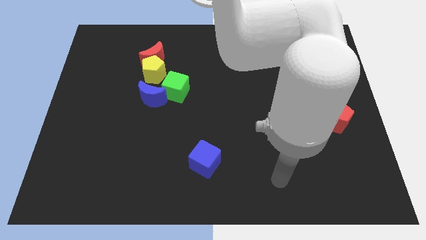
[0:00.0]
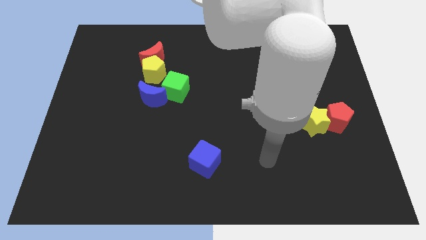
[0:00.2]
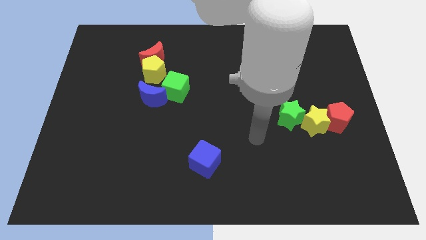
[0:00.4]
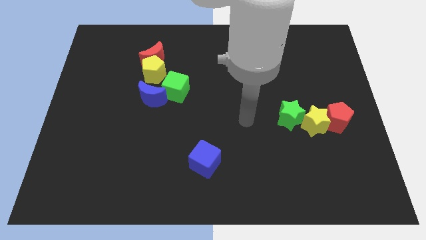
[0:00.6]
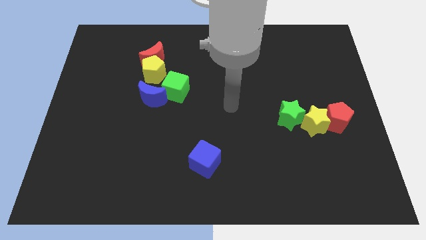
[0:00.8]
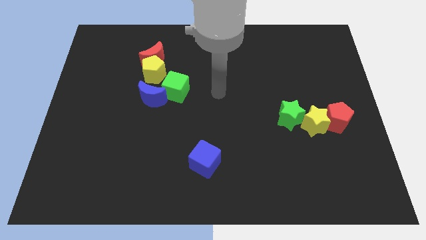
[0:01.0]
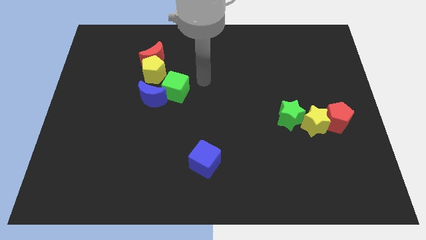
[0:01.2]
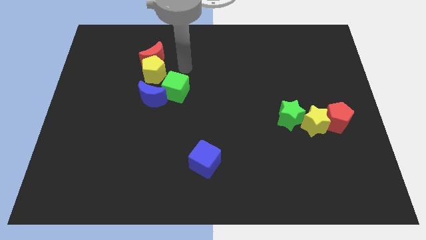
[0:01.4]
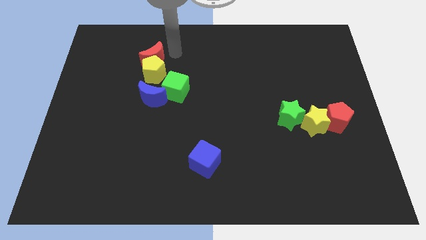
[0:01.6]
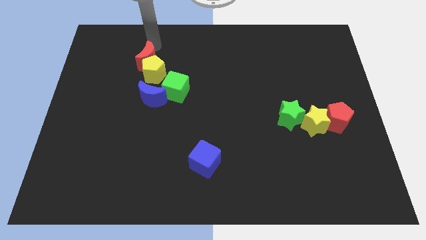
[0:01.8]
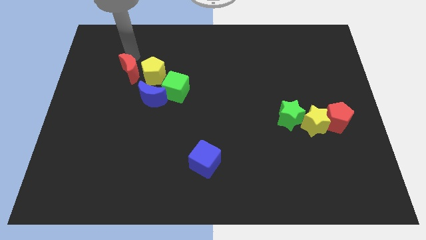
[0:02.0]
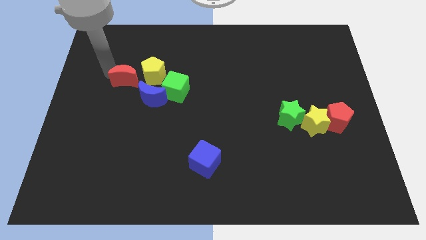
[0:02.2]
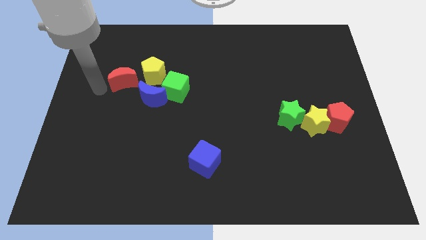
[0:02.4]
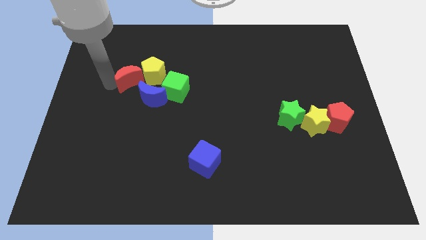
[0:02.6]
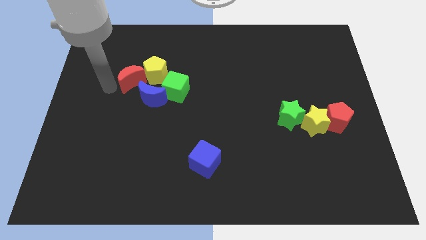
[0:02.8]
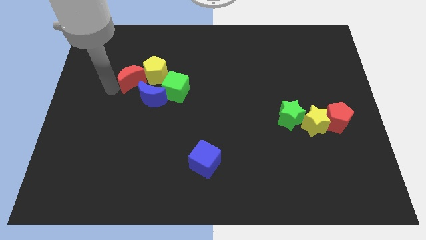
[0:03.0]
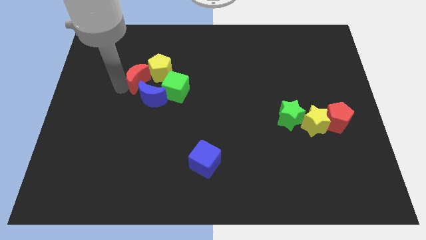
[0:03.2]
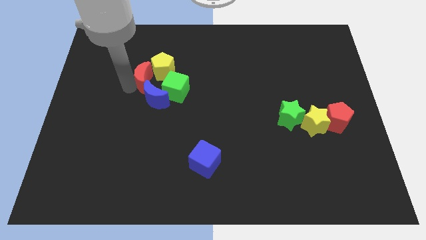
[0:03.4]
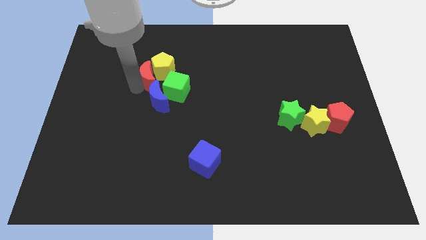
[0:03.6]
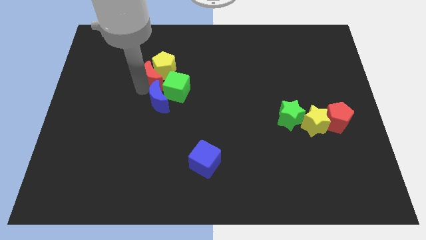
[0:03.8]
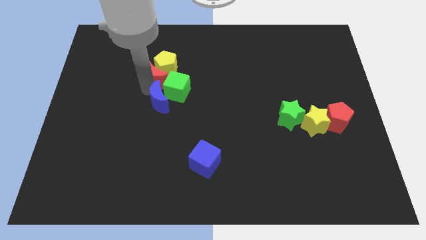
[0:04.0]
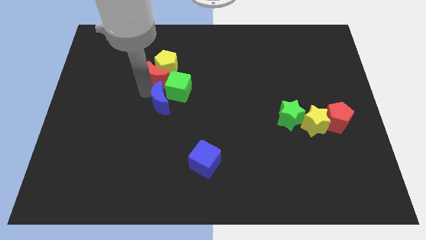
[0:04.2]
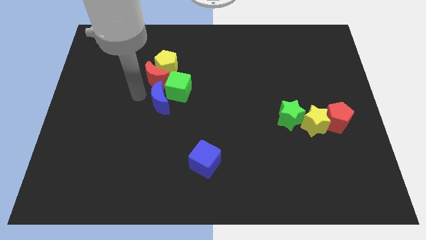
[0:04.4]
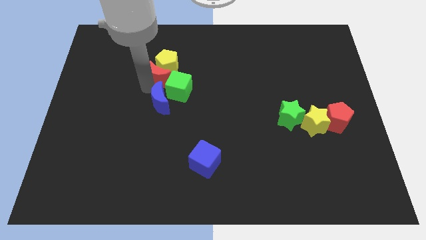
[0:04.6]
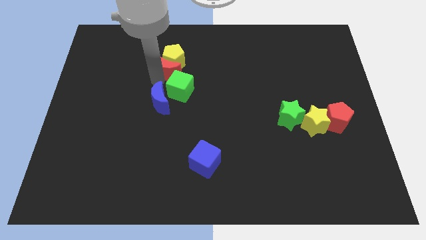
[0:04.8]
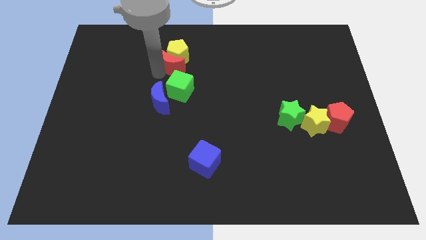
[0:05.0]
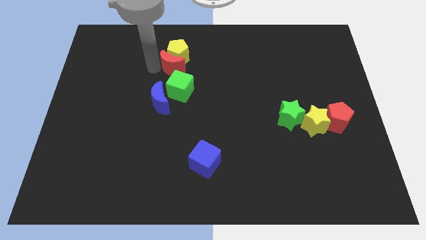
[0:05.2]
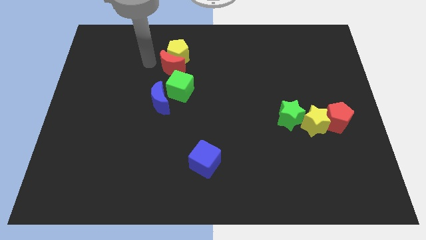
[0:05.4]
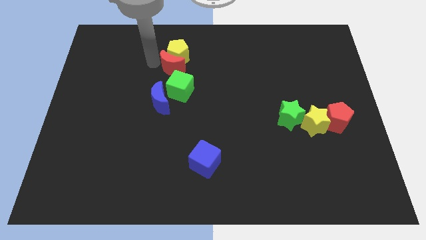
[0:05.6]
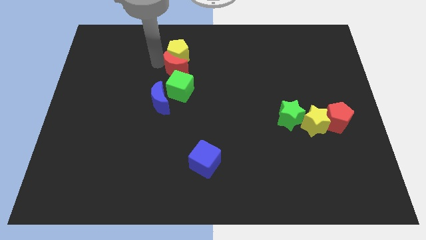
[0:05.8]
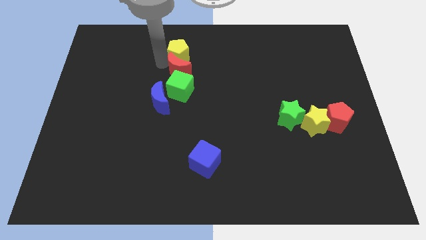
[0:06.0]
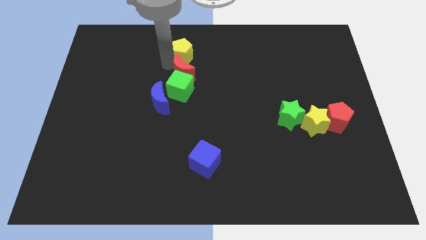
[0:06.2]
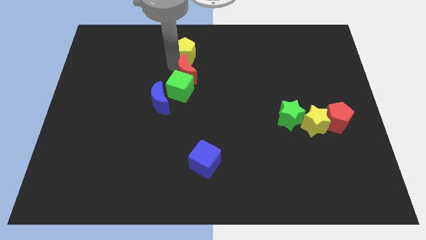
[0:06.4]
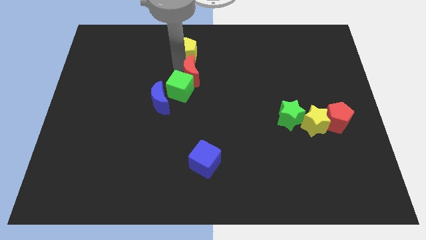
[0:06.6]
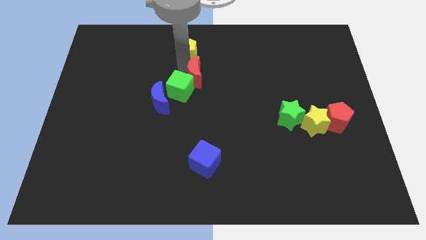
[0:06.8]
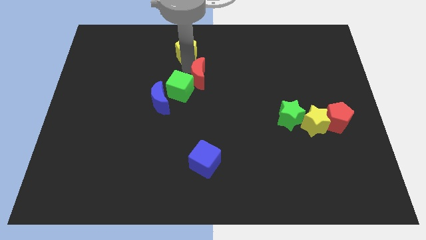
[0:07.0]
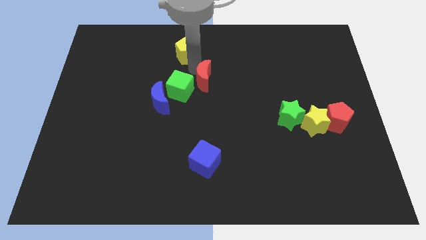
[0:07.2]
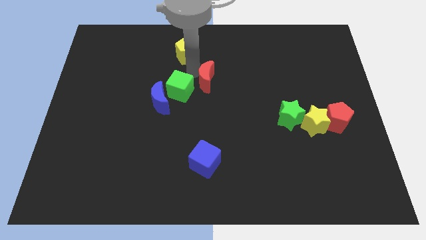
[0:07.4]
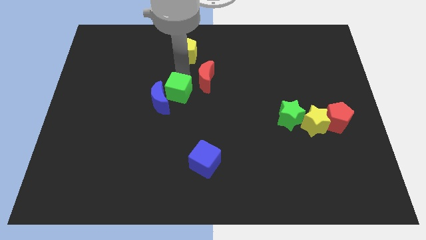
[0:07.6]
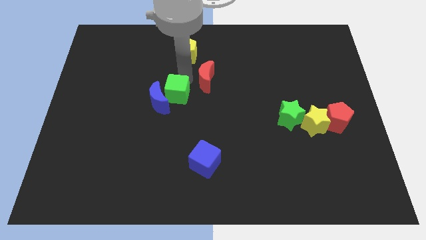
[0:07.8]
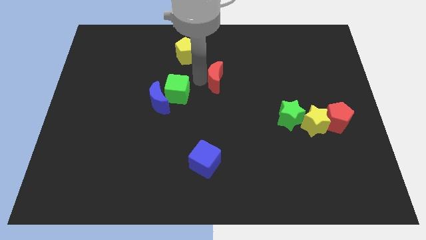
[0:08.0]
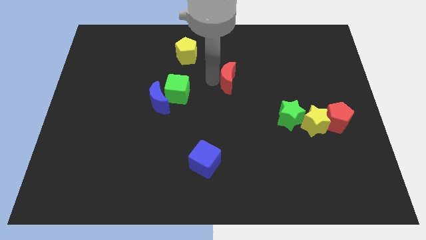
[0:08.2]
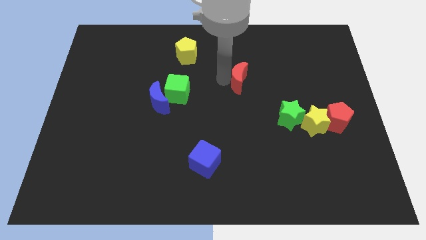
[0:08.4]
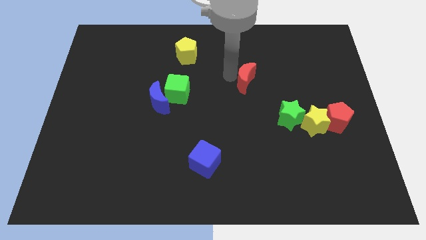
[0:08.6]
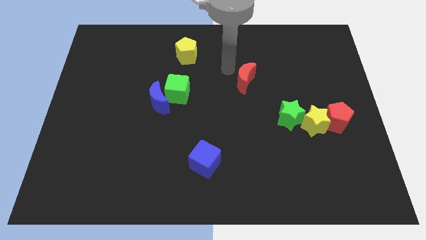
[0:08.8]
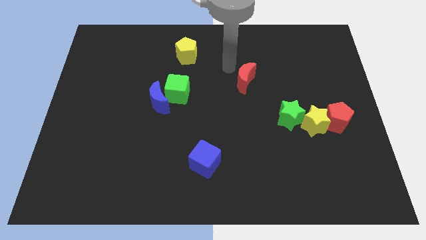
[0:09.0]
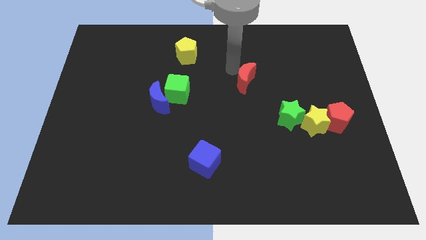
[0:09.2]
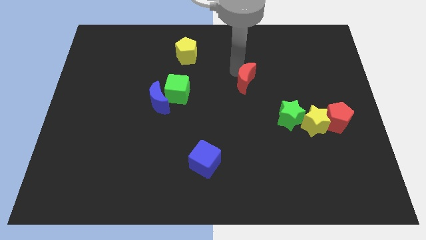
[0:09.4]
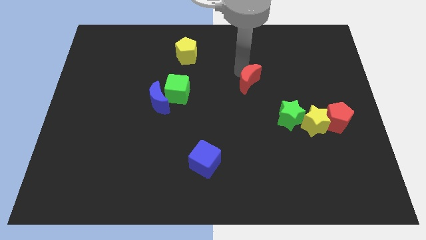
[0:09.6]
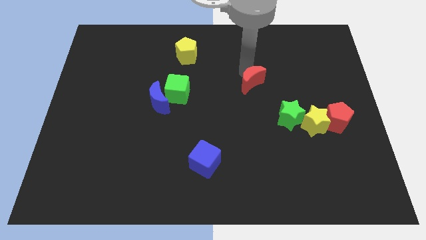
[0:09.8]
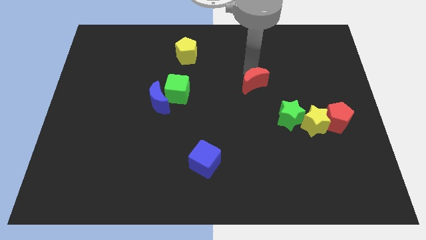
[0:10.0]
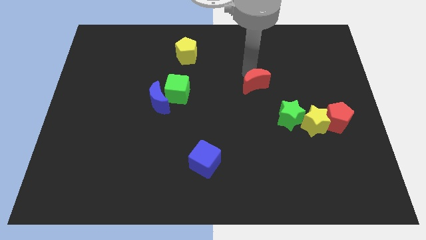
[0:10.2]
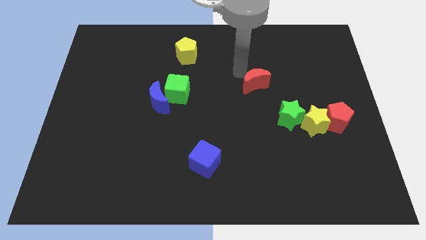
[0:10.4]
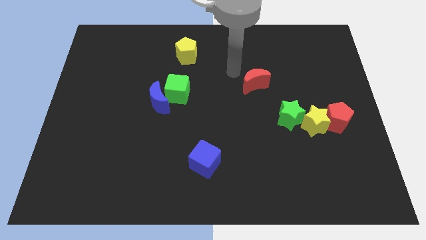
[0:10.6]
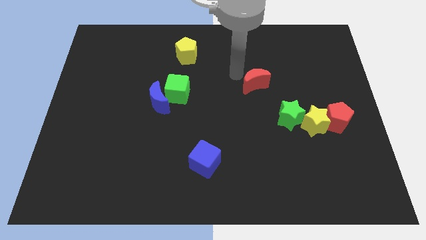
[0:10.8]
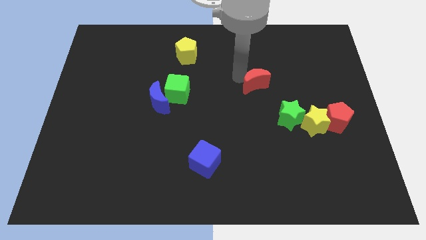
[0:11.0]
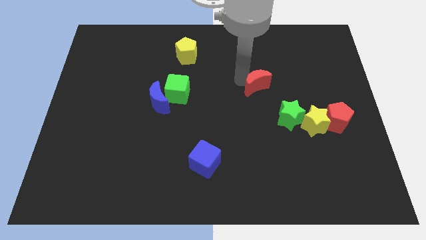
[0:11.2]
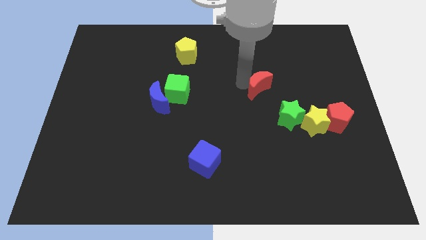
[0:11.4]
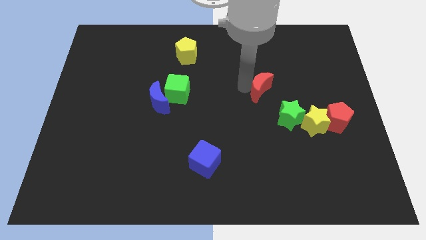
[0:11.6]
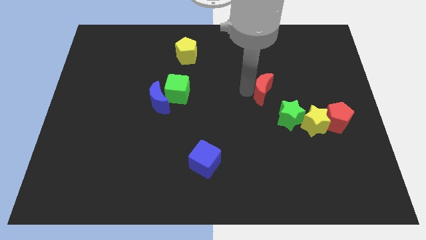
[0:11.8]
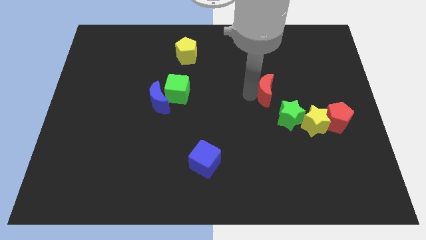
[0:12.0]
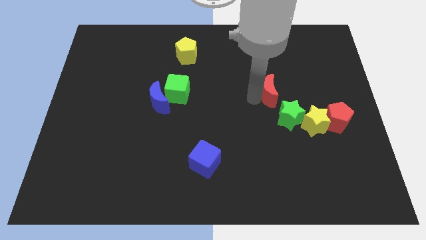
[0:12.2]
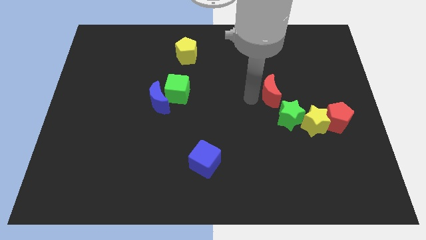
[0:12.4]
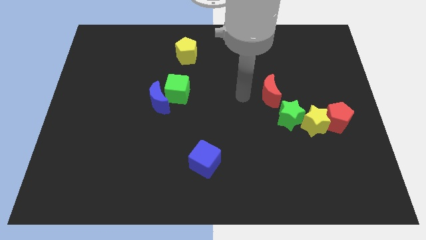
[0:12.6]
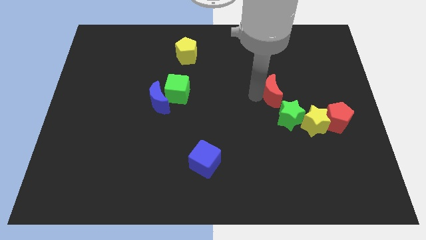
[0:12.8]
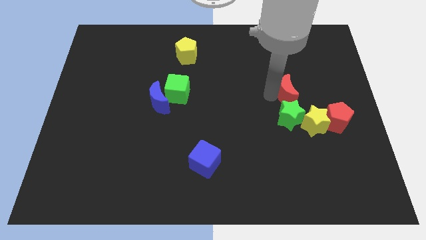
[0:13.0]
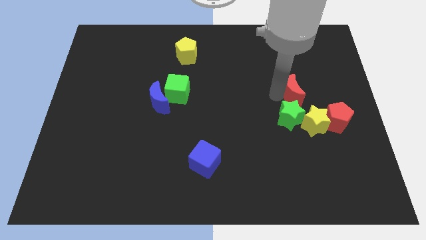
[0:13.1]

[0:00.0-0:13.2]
put the red moon to the top left of the red pentagon
